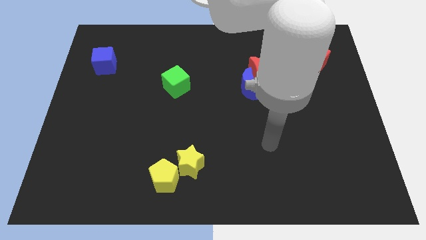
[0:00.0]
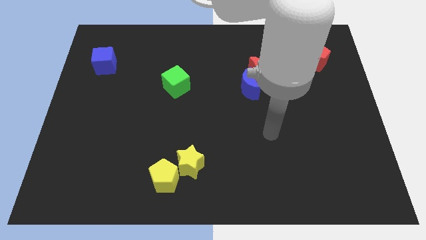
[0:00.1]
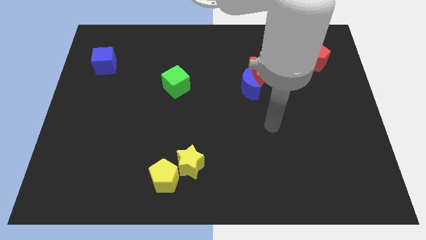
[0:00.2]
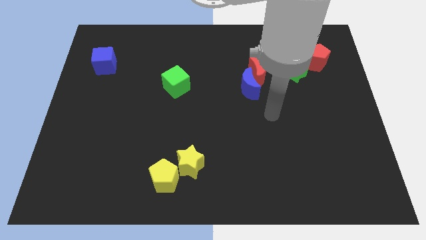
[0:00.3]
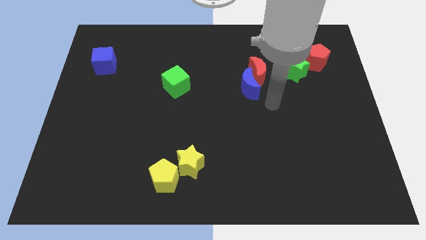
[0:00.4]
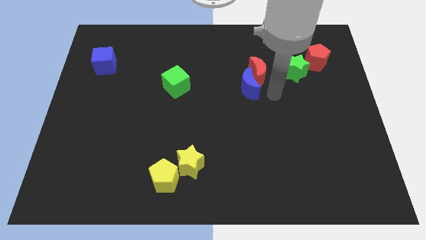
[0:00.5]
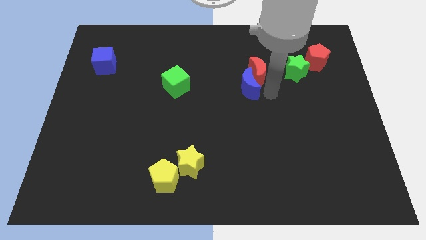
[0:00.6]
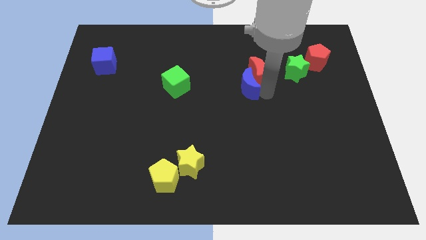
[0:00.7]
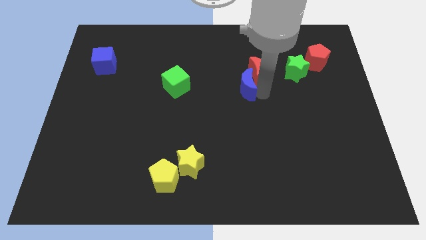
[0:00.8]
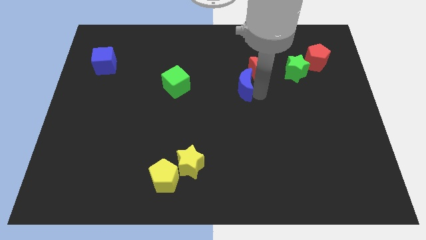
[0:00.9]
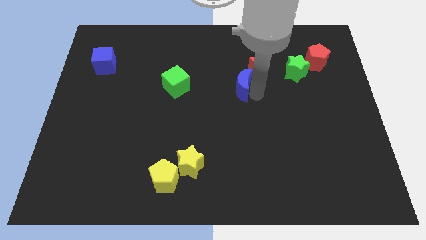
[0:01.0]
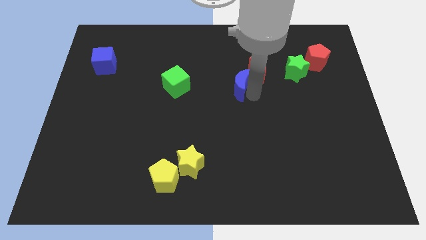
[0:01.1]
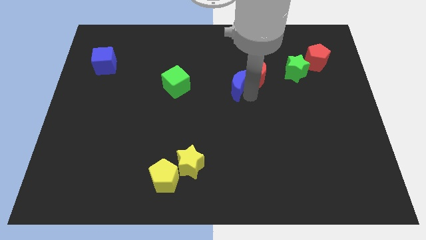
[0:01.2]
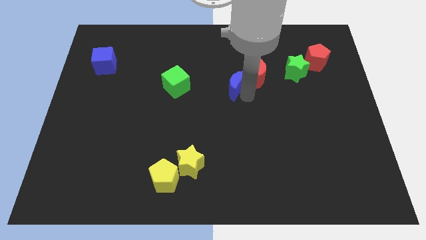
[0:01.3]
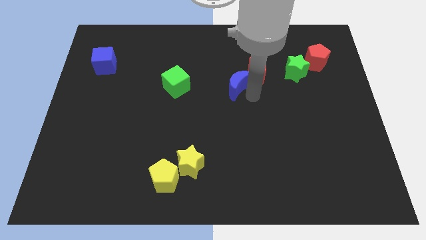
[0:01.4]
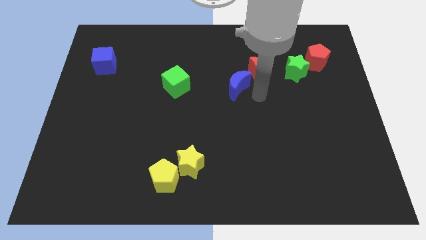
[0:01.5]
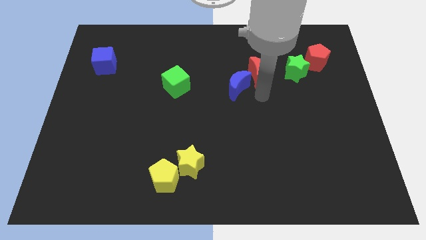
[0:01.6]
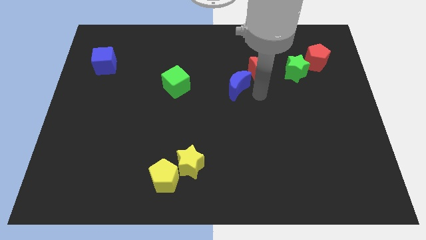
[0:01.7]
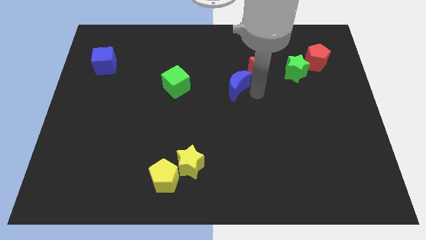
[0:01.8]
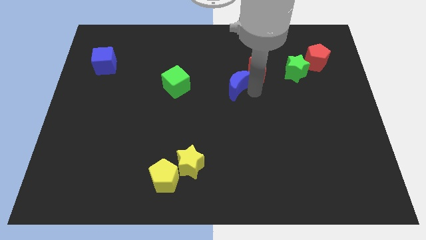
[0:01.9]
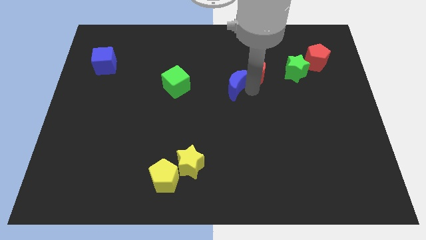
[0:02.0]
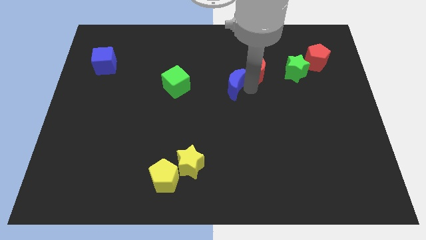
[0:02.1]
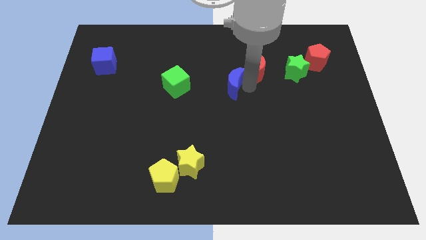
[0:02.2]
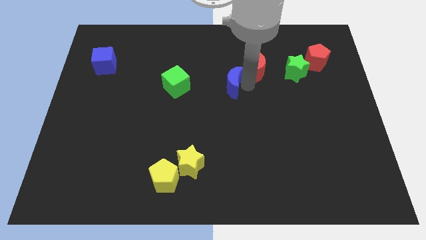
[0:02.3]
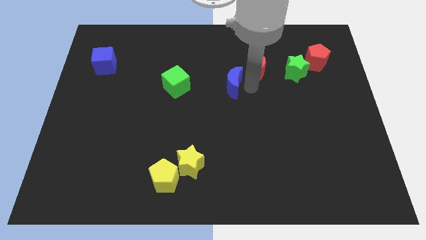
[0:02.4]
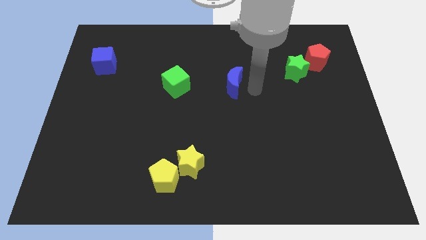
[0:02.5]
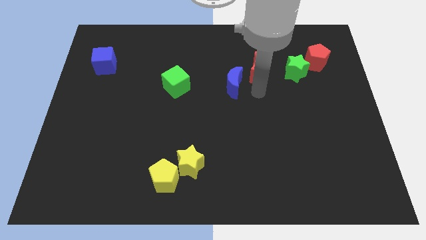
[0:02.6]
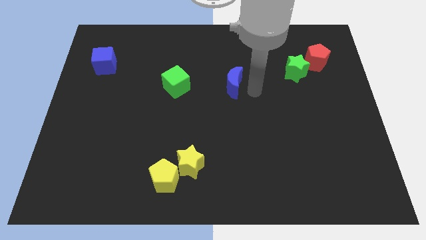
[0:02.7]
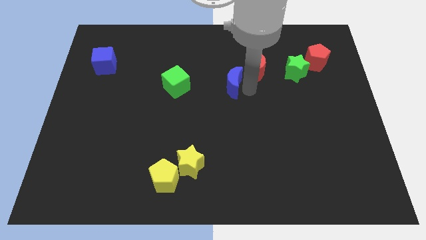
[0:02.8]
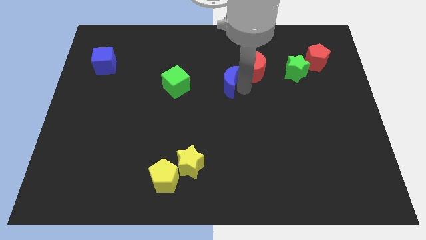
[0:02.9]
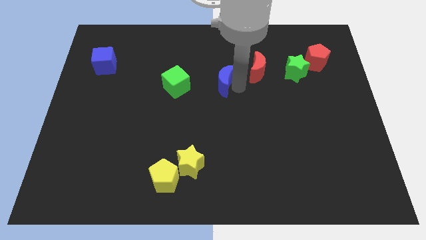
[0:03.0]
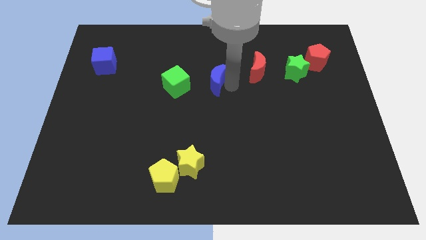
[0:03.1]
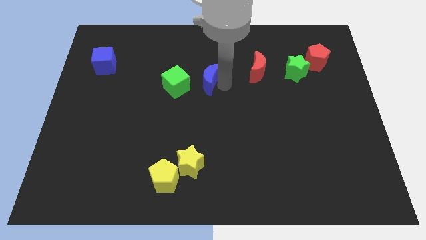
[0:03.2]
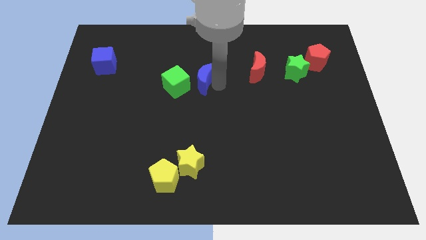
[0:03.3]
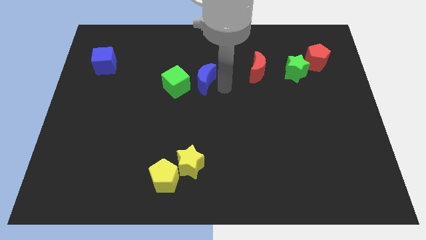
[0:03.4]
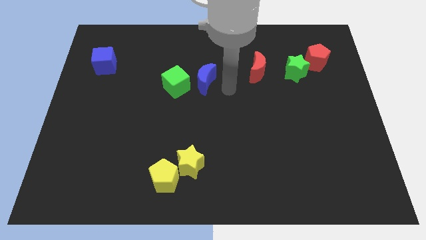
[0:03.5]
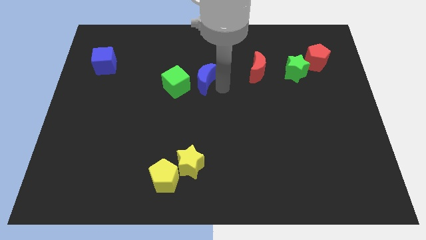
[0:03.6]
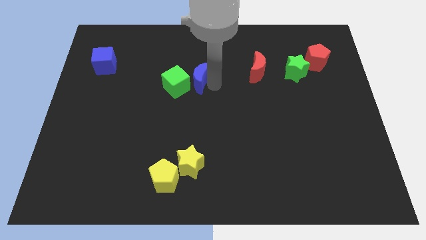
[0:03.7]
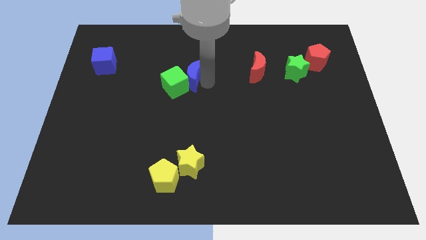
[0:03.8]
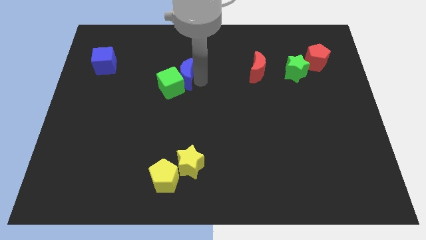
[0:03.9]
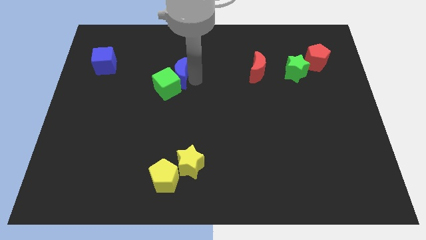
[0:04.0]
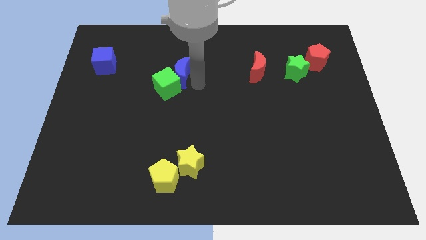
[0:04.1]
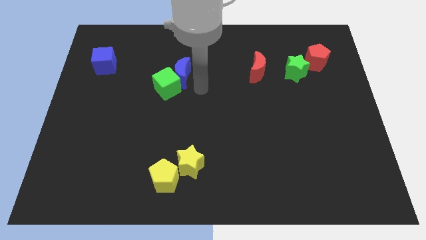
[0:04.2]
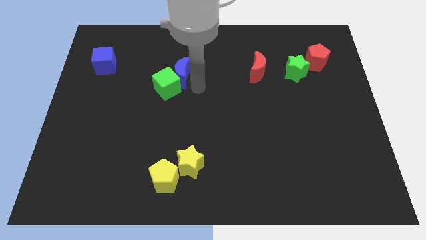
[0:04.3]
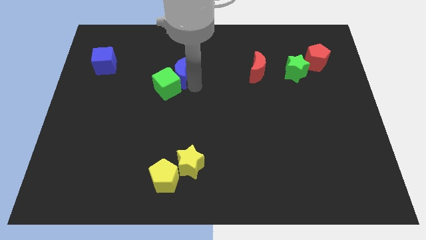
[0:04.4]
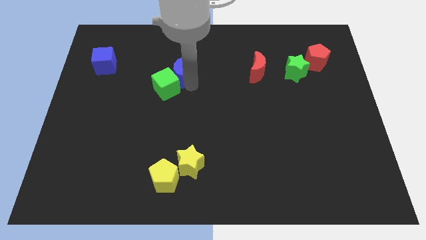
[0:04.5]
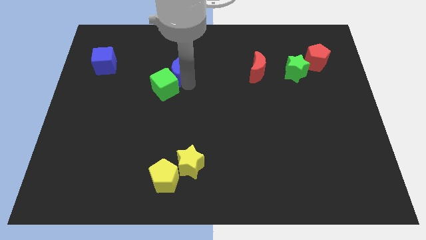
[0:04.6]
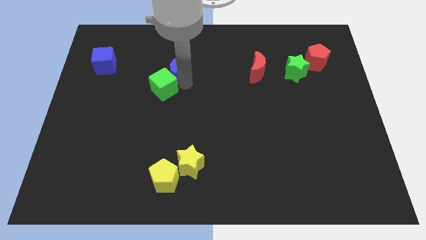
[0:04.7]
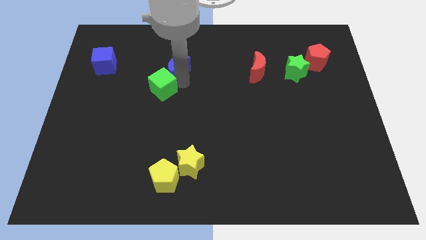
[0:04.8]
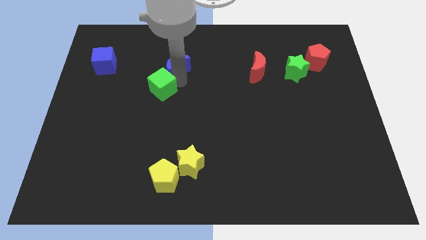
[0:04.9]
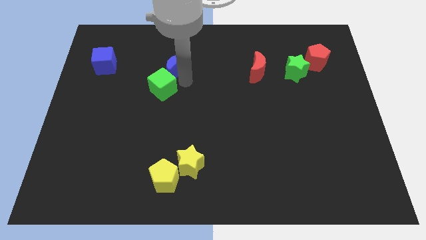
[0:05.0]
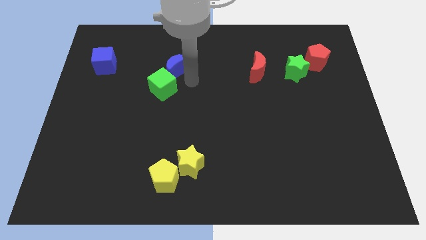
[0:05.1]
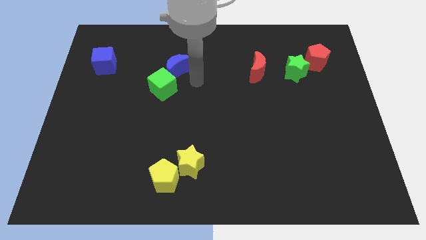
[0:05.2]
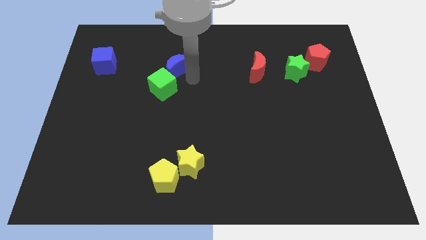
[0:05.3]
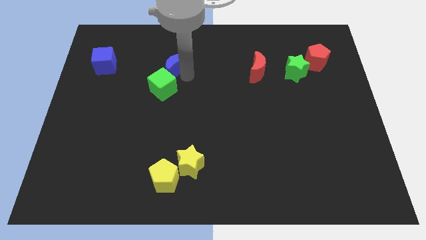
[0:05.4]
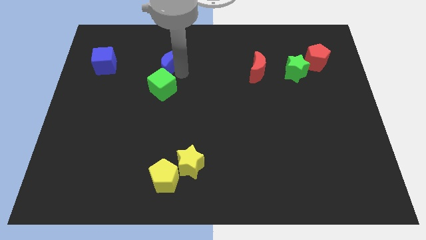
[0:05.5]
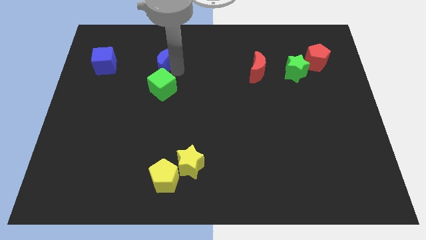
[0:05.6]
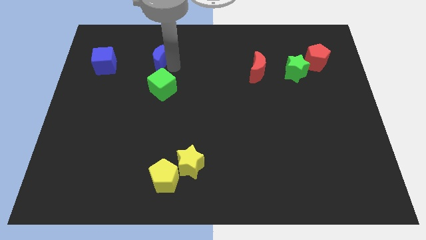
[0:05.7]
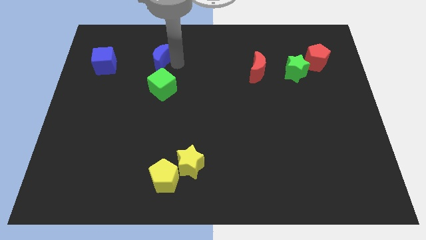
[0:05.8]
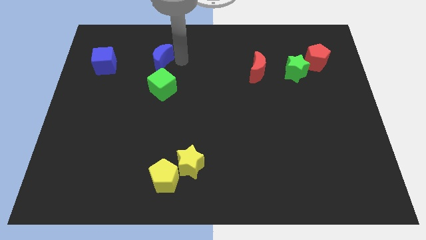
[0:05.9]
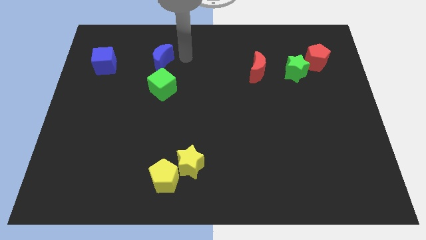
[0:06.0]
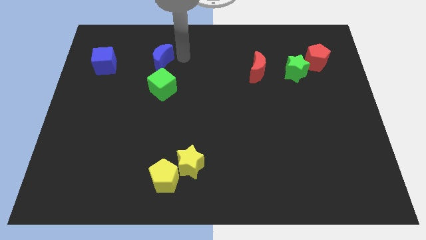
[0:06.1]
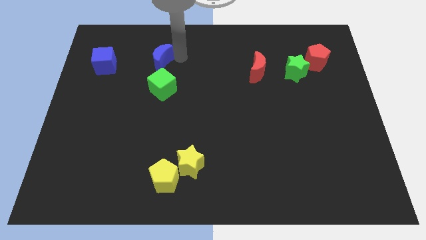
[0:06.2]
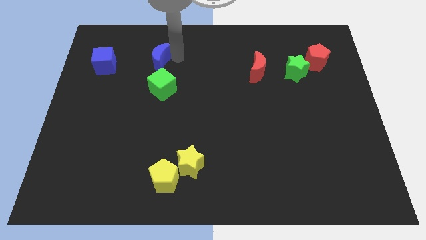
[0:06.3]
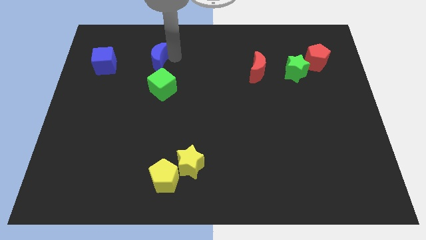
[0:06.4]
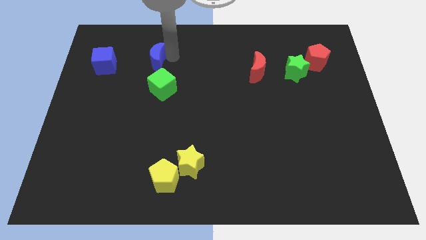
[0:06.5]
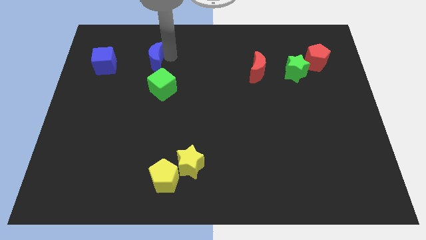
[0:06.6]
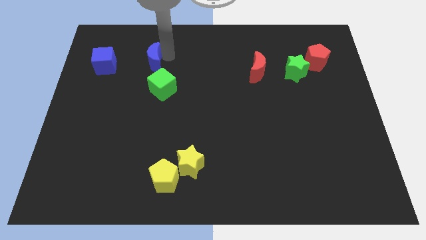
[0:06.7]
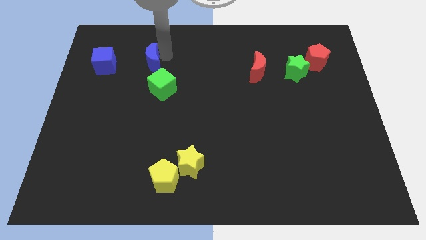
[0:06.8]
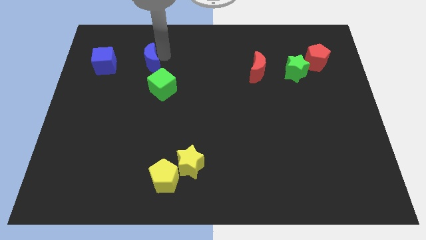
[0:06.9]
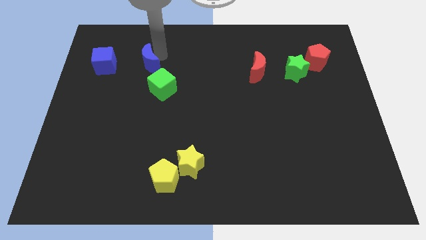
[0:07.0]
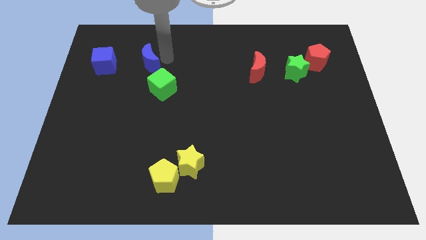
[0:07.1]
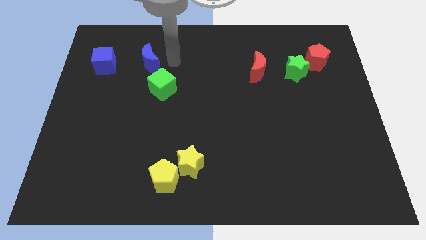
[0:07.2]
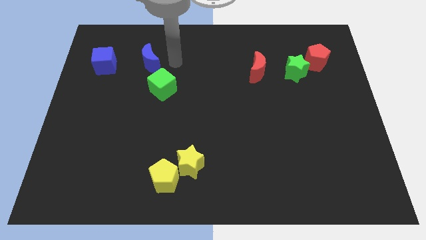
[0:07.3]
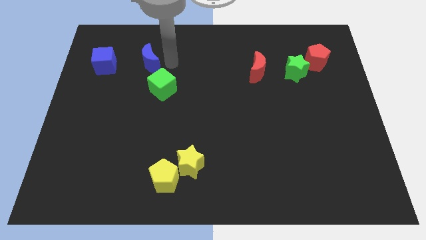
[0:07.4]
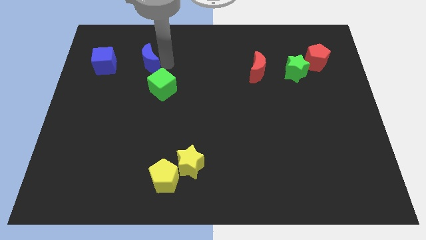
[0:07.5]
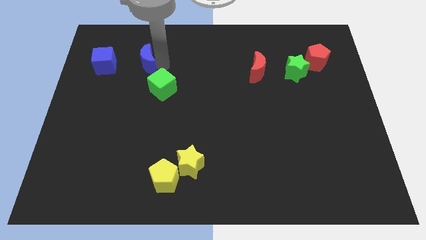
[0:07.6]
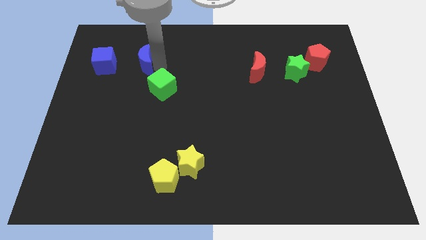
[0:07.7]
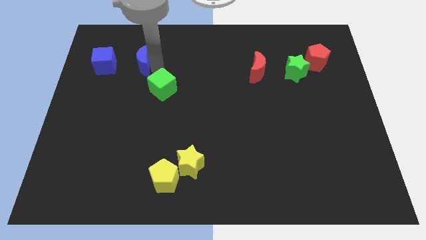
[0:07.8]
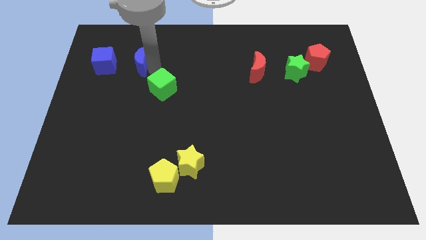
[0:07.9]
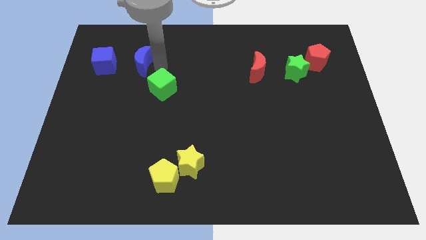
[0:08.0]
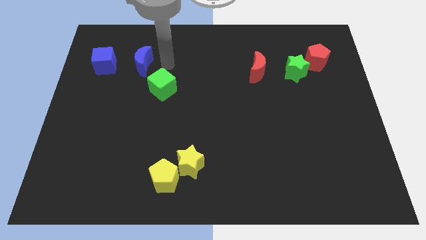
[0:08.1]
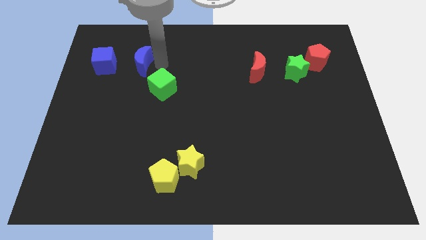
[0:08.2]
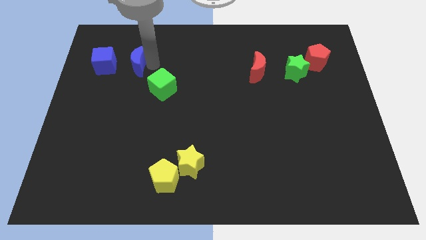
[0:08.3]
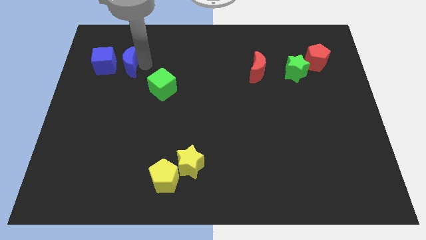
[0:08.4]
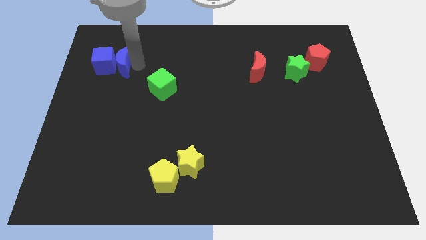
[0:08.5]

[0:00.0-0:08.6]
slide the blue moon close to the blue cube
